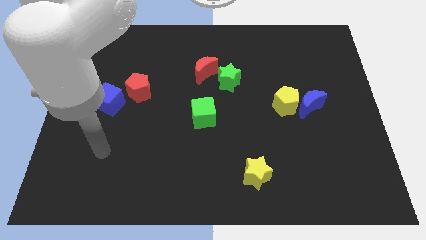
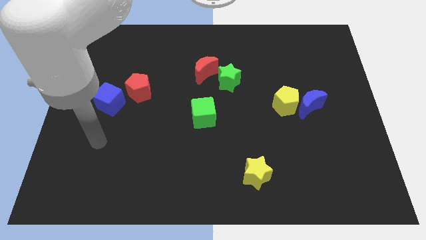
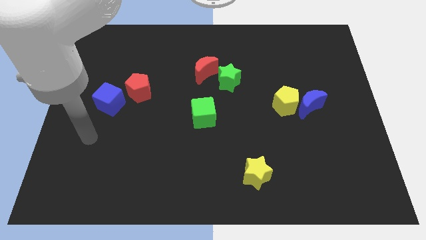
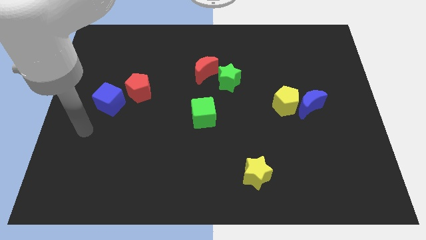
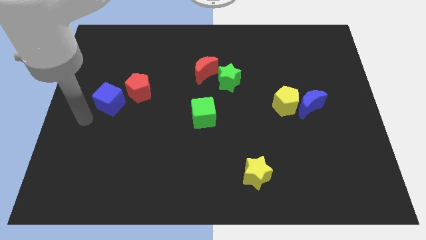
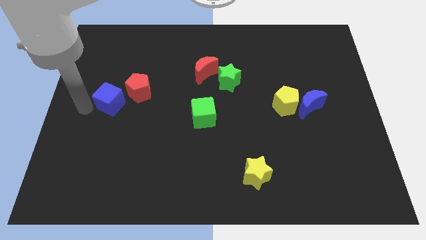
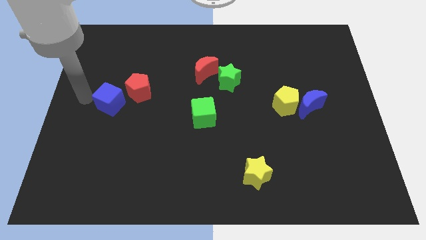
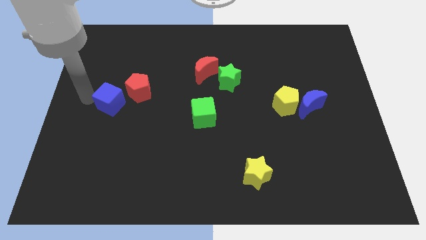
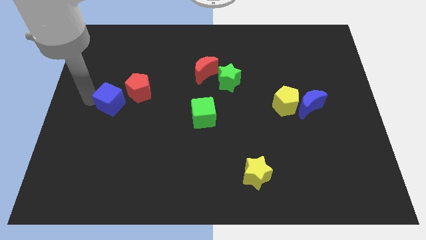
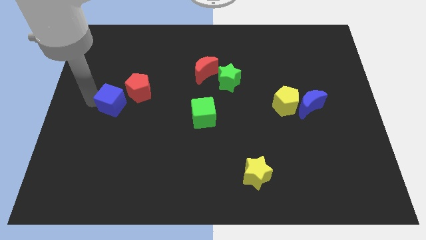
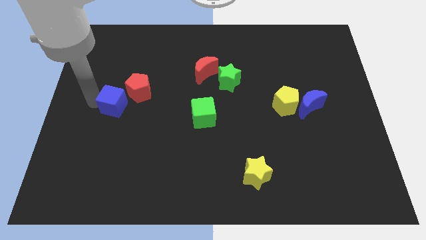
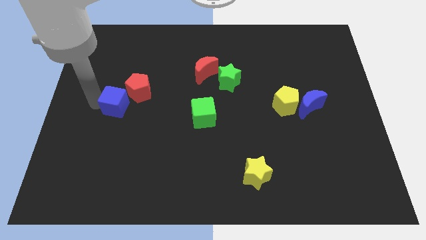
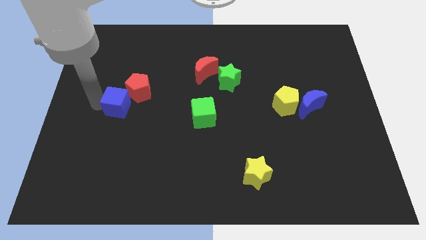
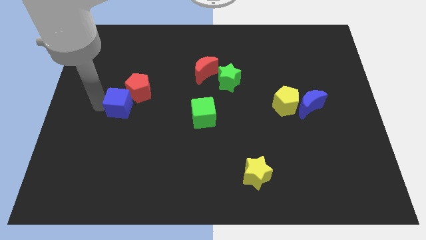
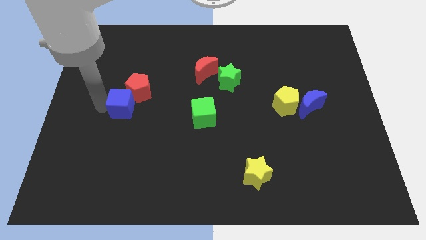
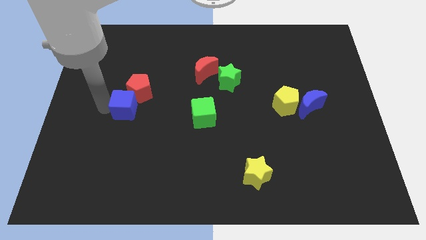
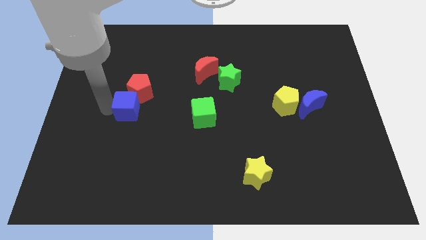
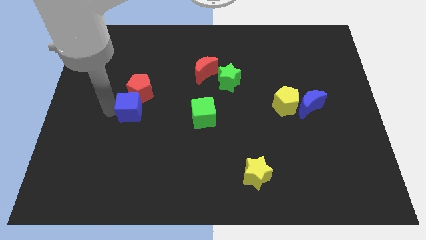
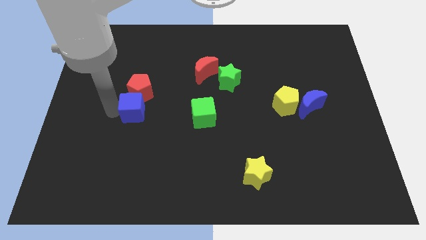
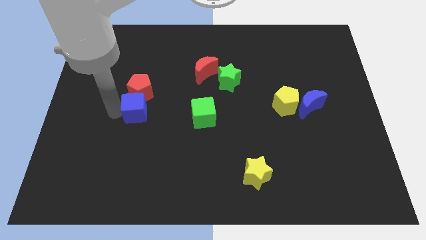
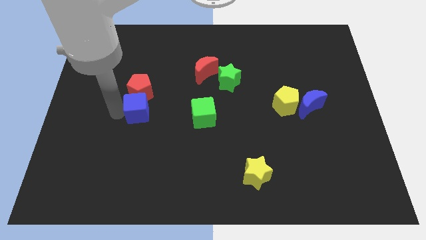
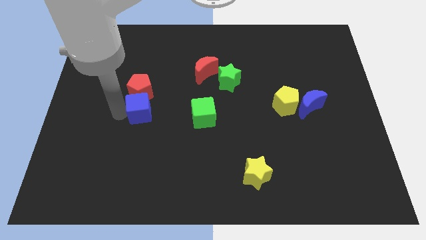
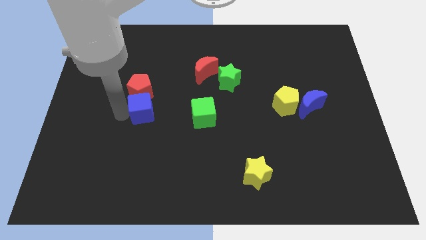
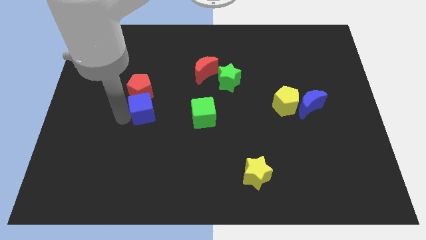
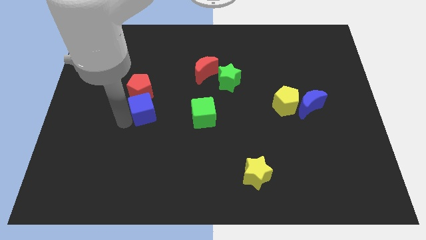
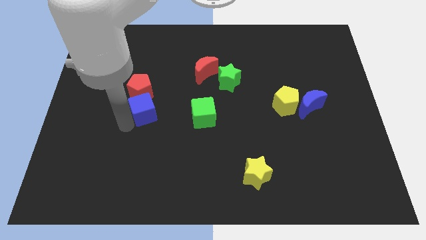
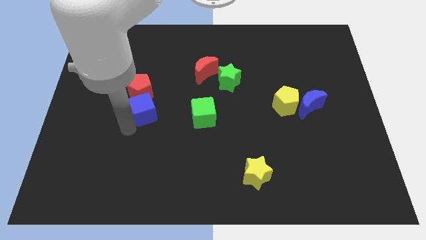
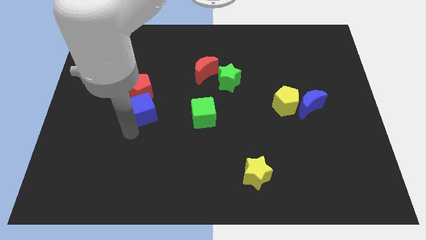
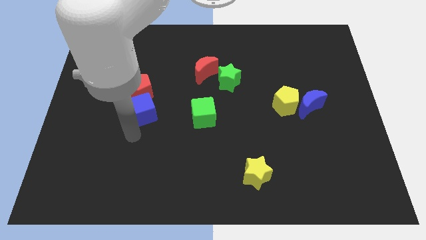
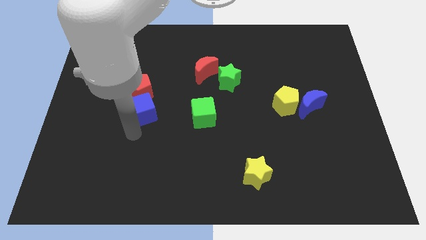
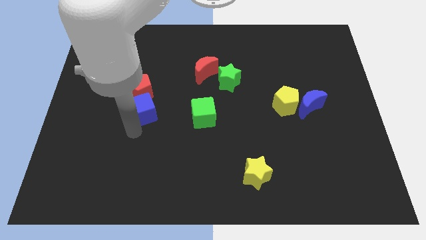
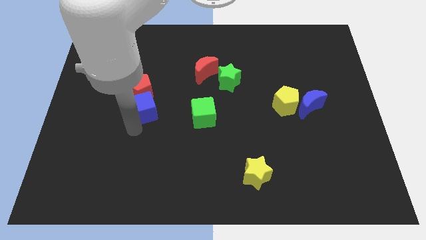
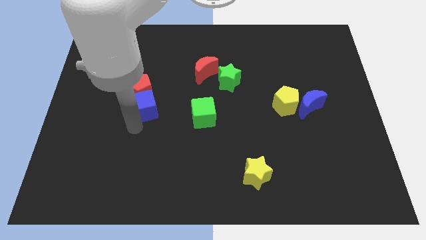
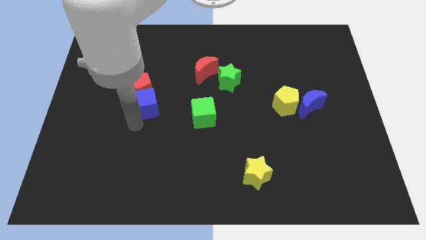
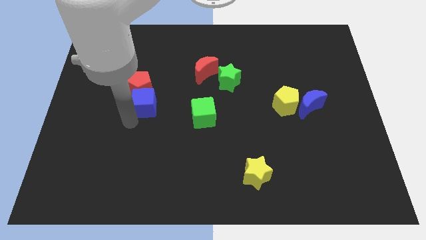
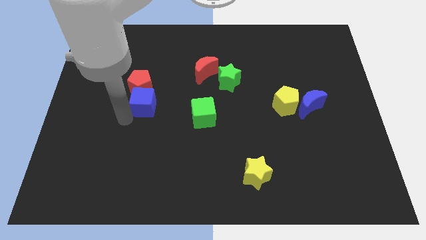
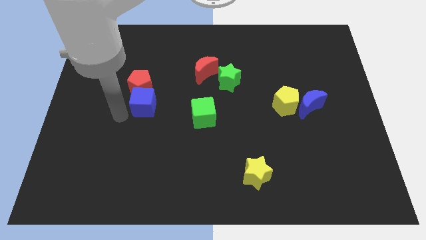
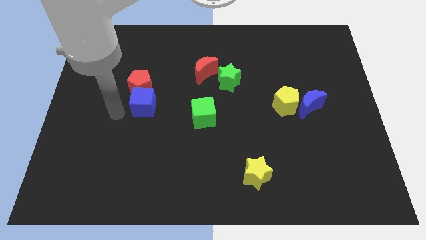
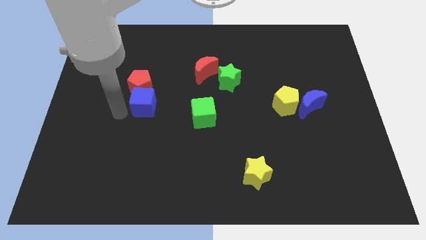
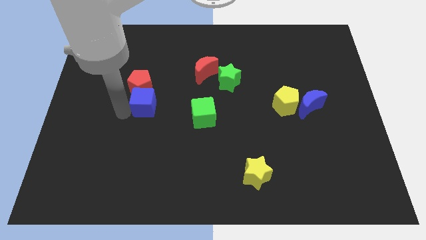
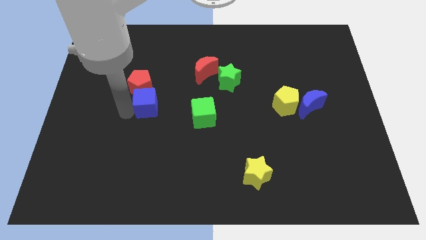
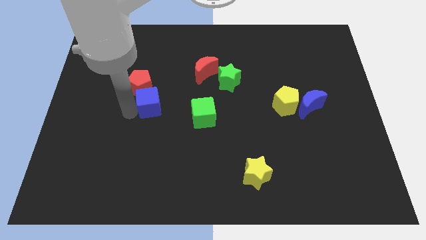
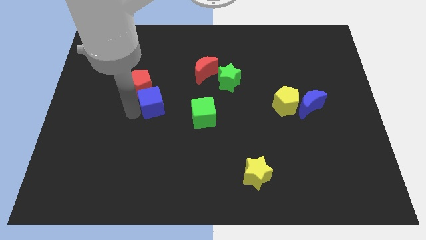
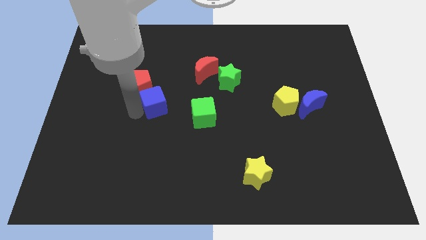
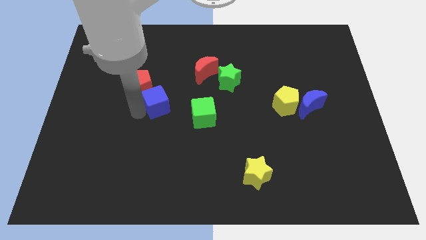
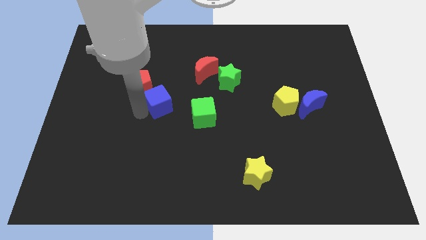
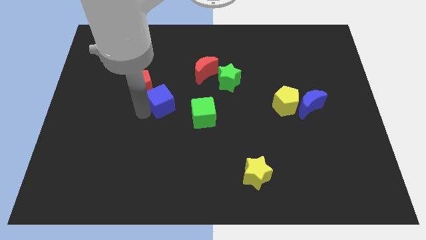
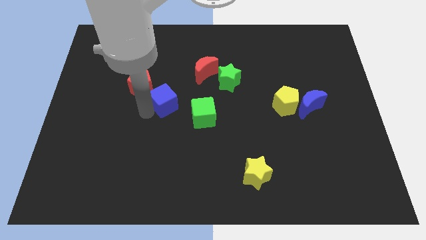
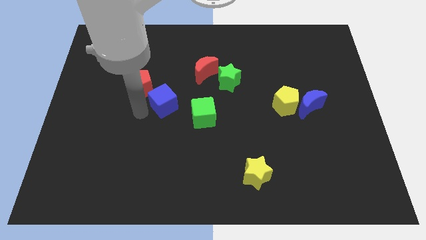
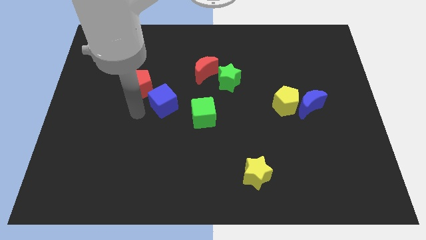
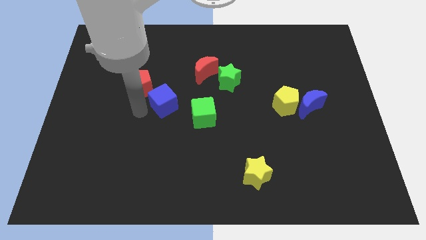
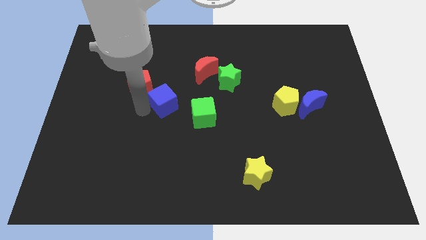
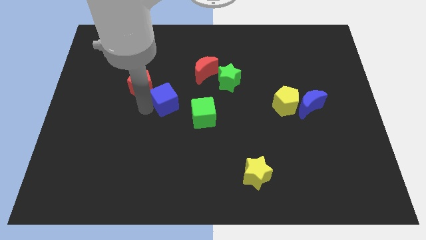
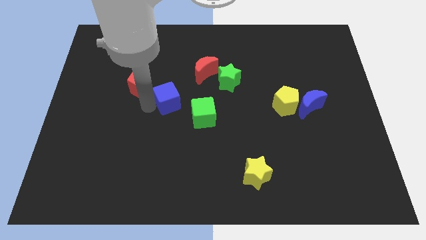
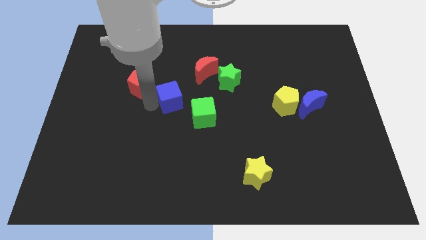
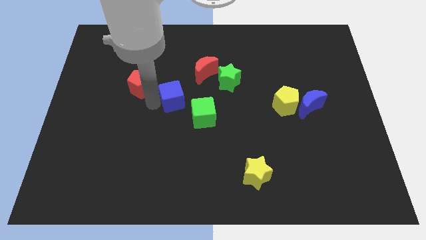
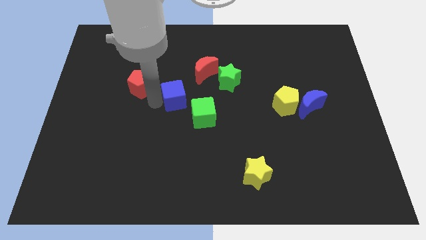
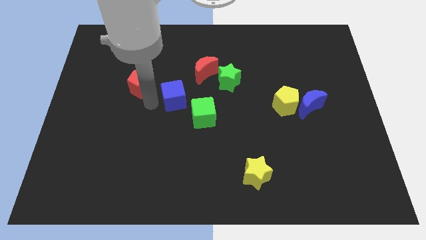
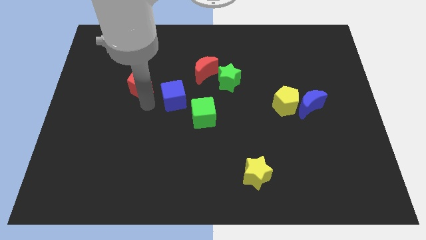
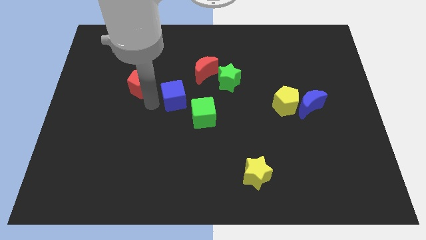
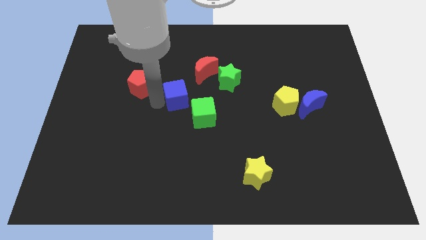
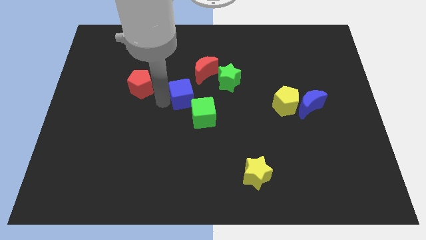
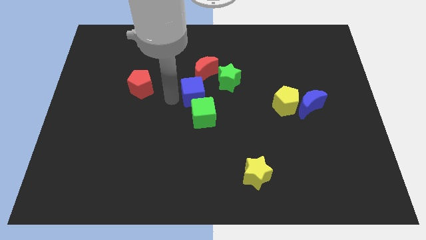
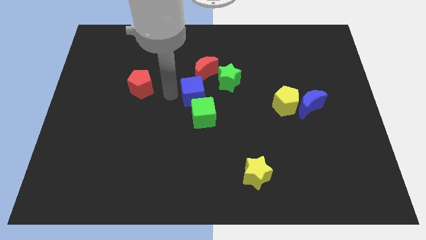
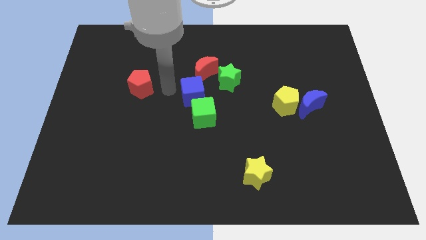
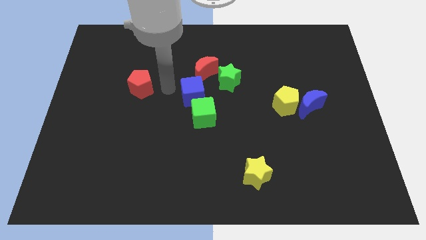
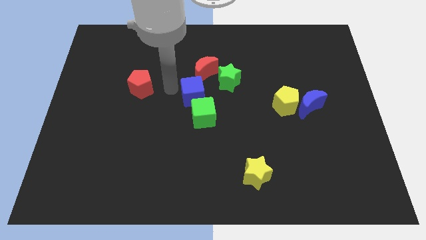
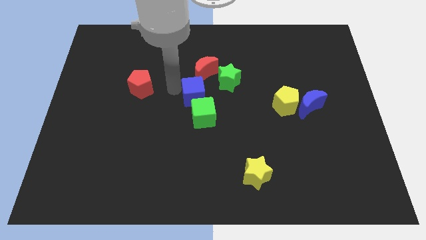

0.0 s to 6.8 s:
slide the blue cube to the right

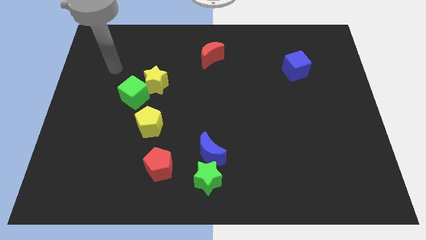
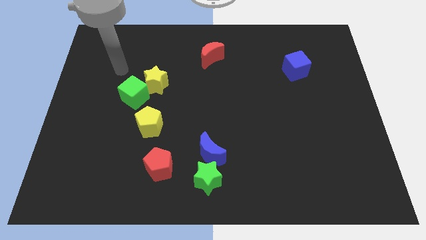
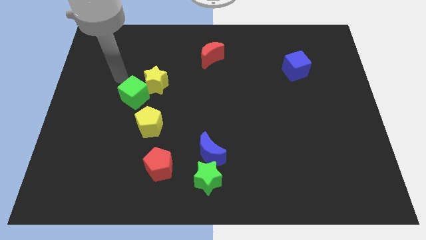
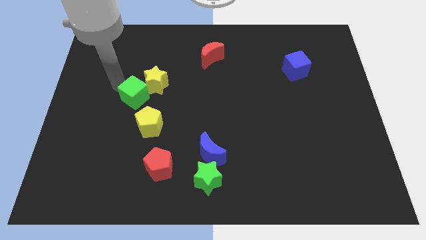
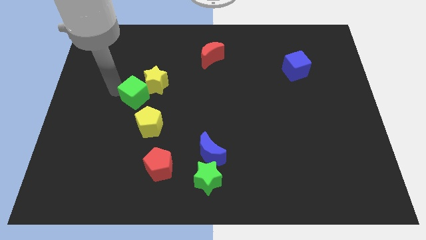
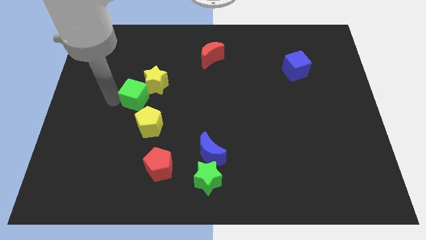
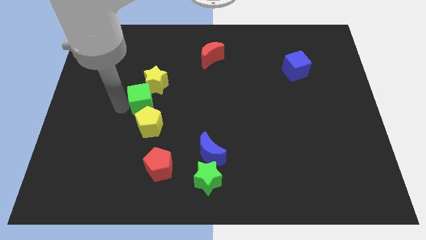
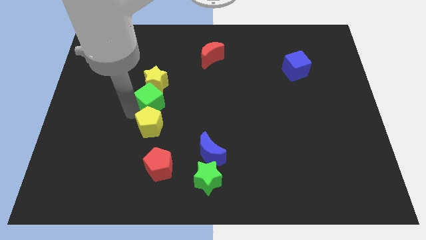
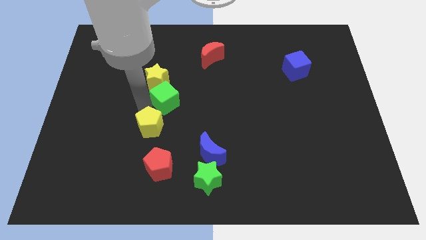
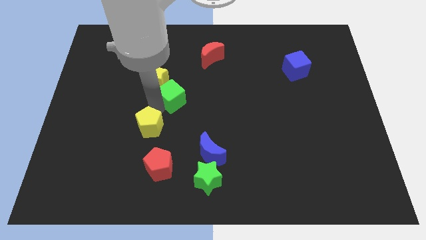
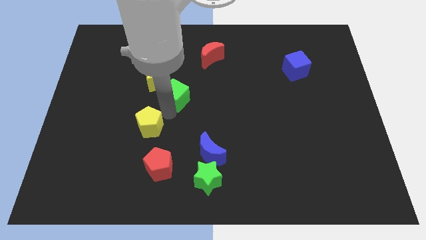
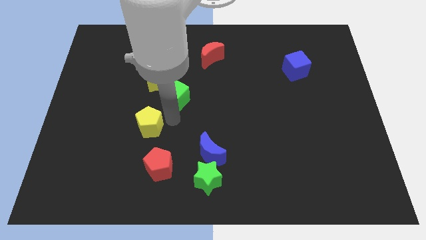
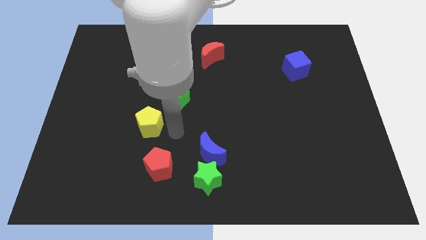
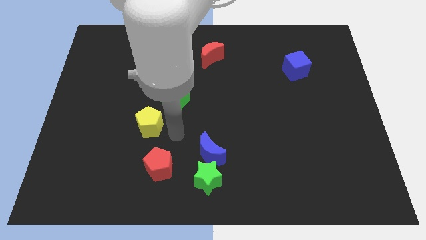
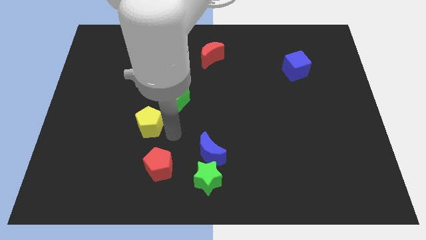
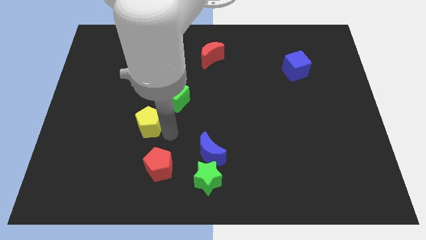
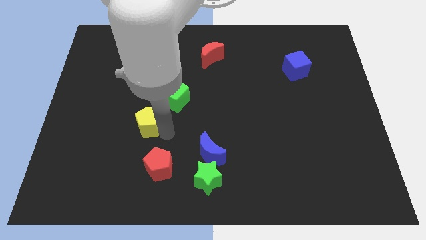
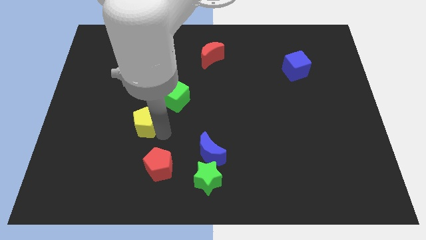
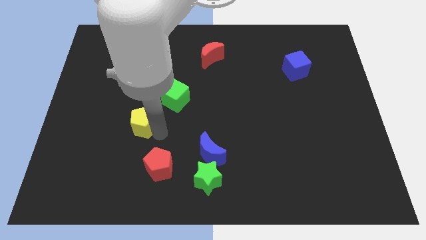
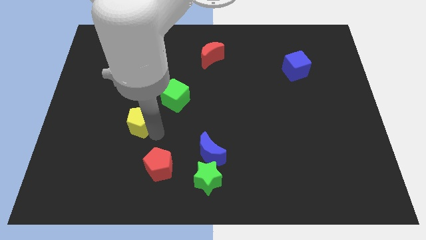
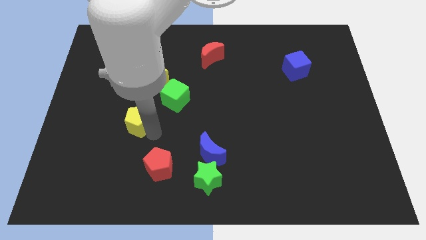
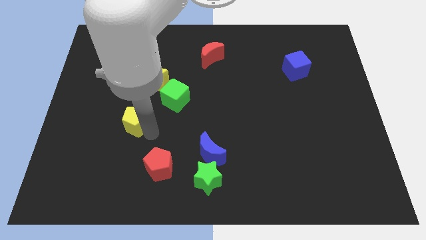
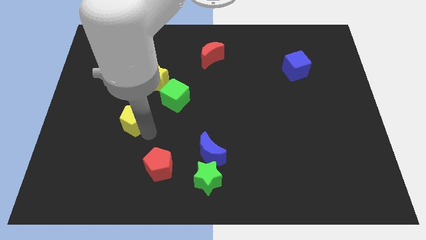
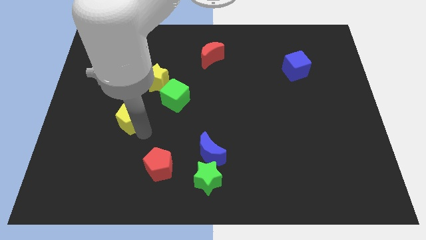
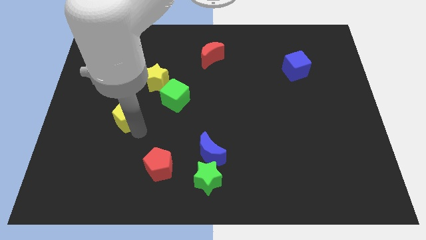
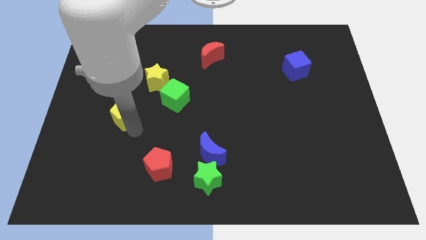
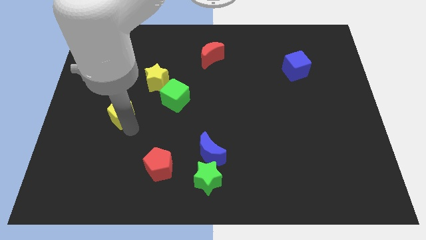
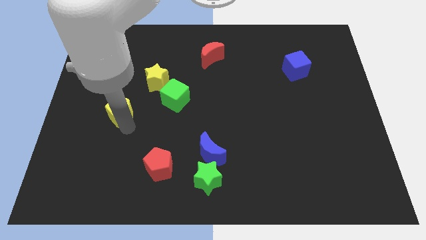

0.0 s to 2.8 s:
slide the yellow pentagon upwards and to the left somewhat
